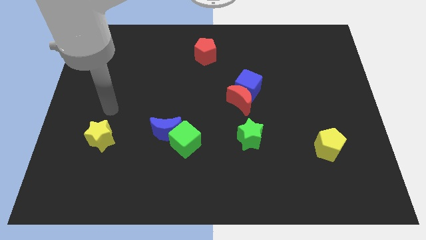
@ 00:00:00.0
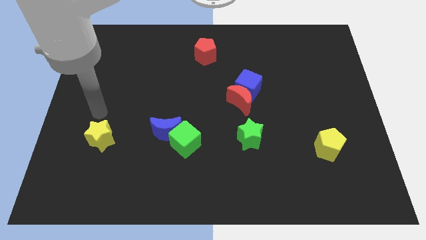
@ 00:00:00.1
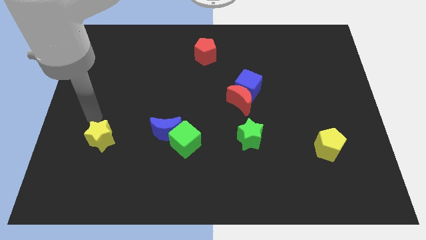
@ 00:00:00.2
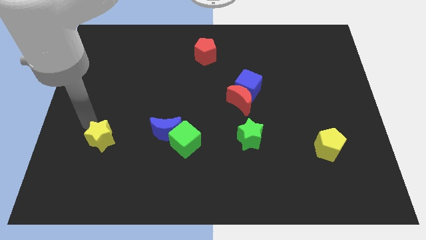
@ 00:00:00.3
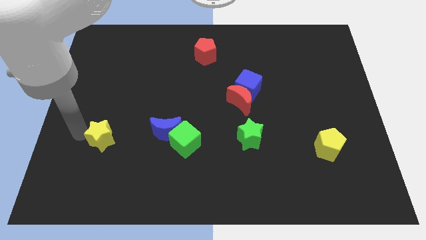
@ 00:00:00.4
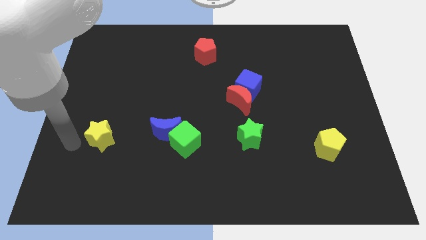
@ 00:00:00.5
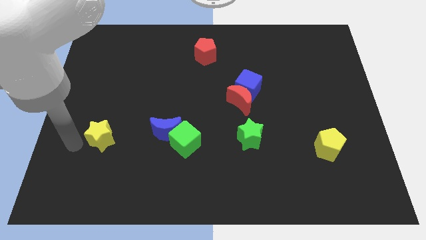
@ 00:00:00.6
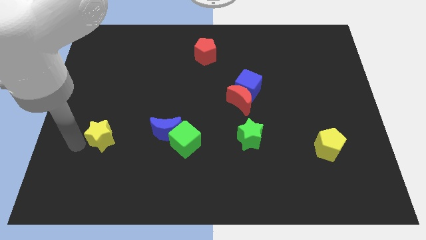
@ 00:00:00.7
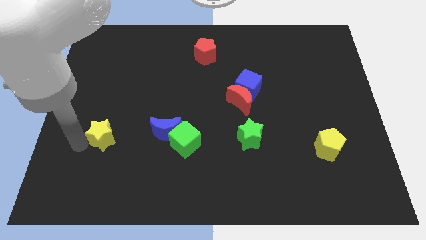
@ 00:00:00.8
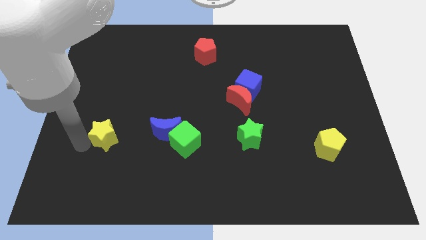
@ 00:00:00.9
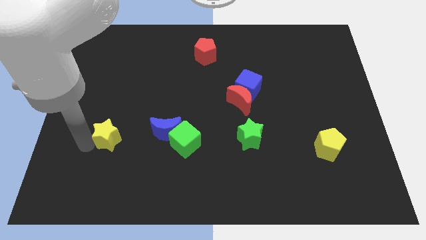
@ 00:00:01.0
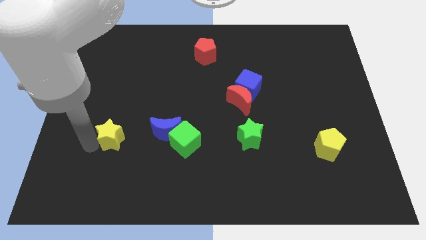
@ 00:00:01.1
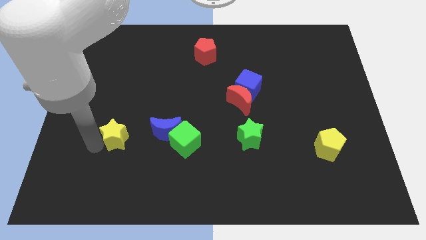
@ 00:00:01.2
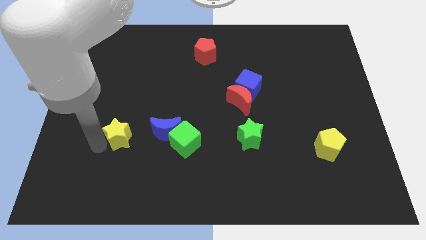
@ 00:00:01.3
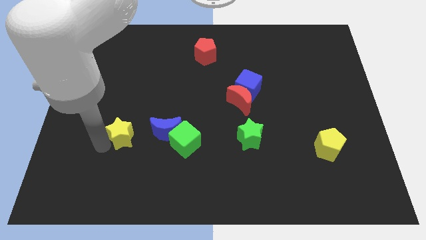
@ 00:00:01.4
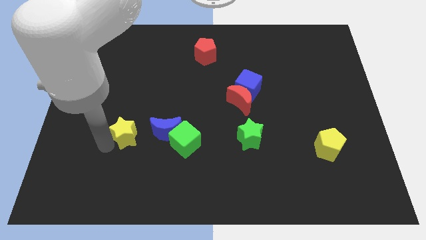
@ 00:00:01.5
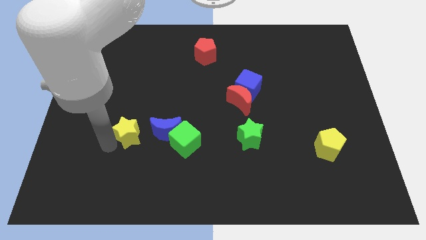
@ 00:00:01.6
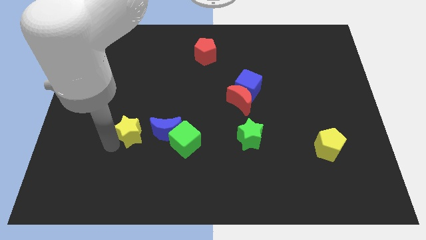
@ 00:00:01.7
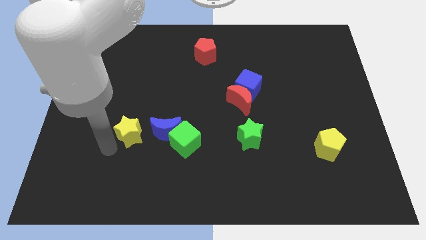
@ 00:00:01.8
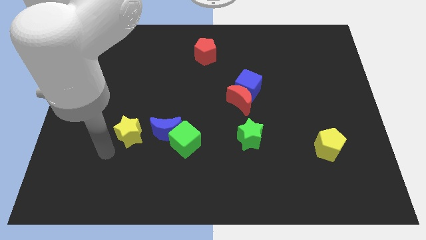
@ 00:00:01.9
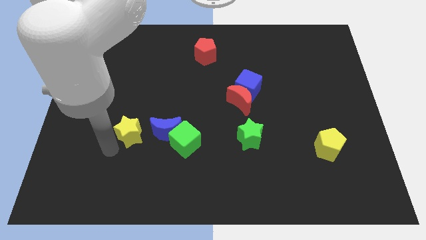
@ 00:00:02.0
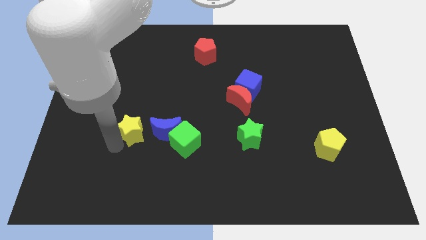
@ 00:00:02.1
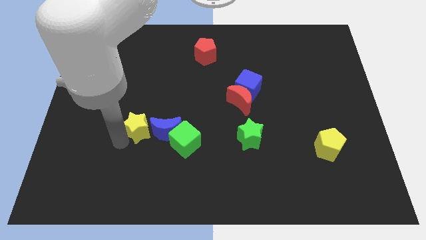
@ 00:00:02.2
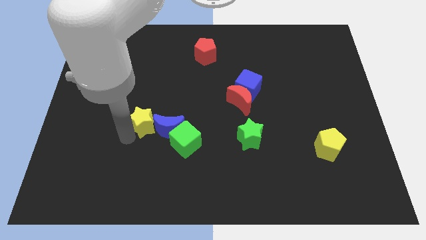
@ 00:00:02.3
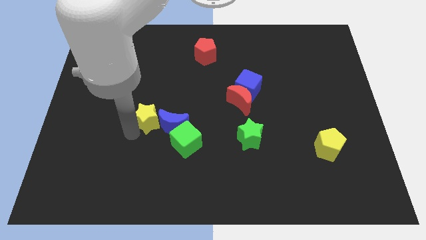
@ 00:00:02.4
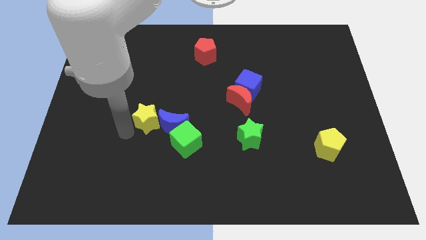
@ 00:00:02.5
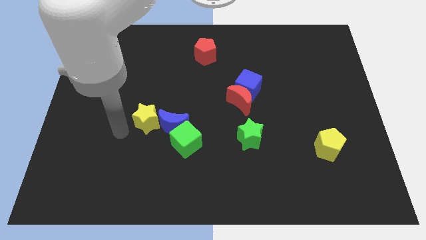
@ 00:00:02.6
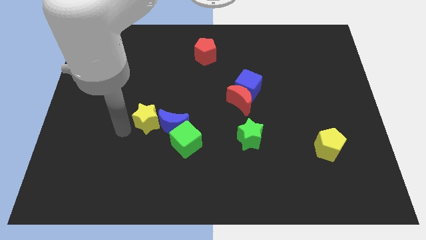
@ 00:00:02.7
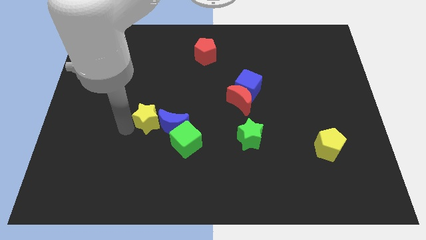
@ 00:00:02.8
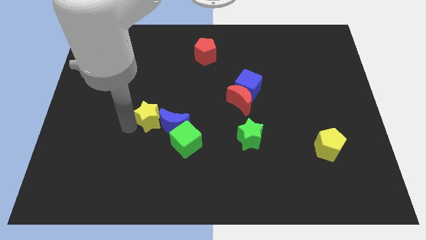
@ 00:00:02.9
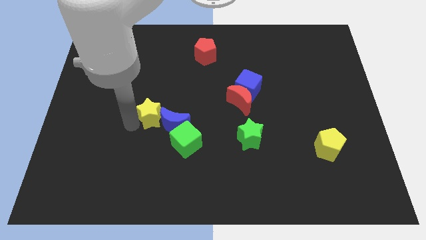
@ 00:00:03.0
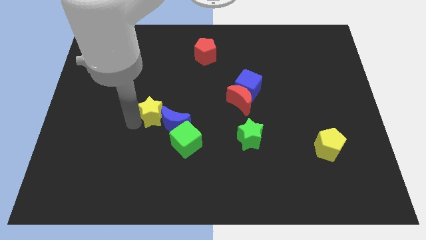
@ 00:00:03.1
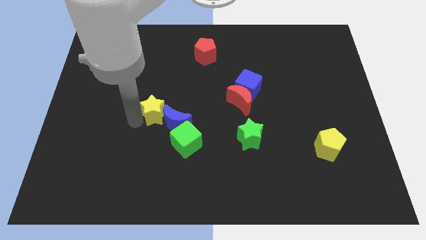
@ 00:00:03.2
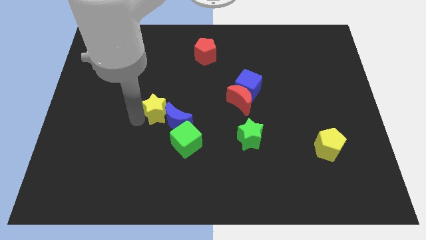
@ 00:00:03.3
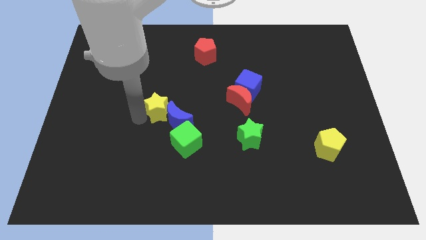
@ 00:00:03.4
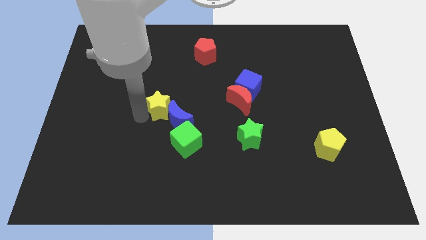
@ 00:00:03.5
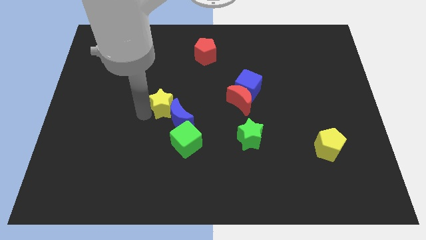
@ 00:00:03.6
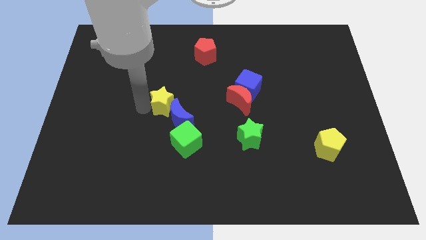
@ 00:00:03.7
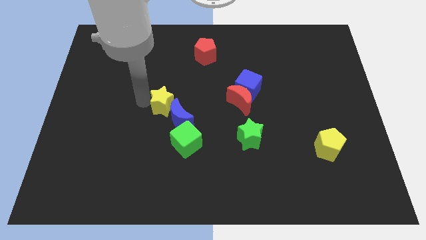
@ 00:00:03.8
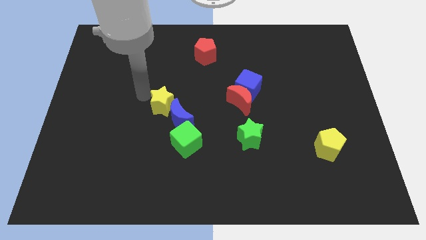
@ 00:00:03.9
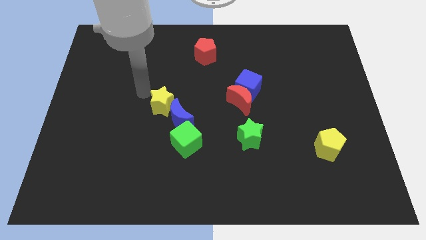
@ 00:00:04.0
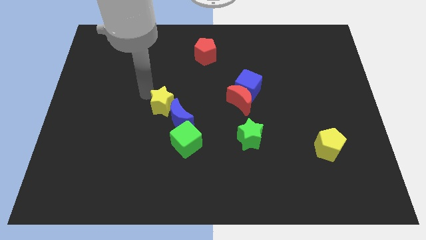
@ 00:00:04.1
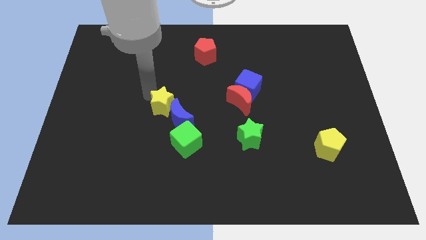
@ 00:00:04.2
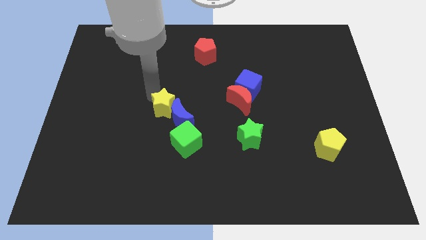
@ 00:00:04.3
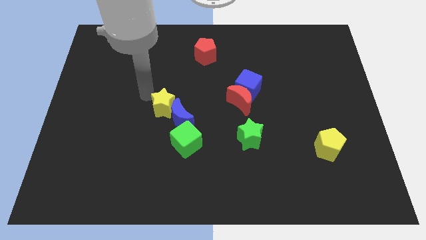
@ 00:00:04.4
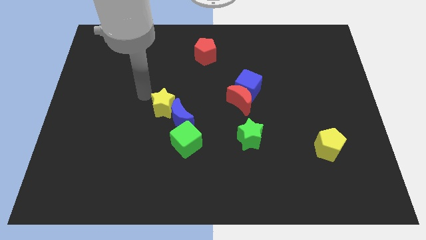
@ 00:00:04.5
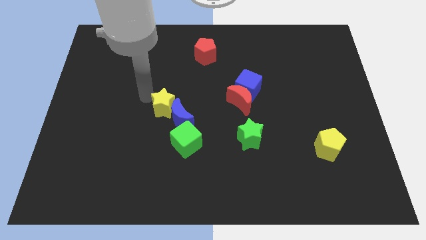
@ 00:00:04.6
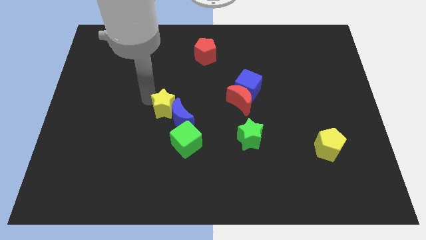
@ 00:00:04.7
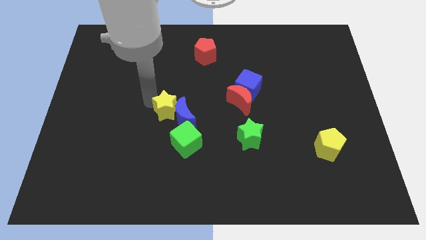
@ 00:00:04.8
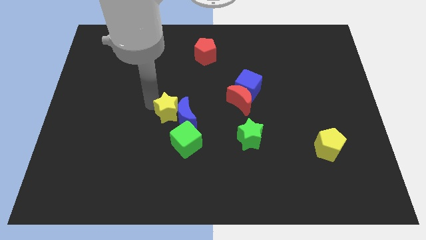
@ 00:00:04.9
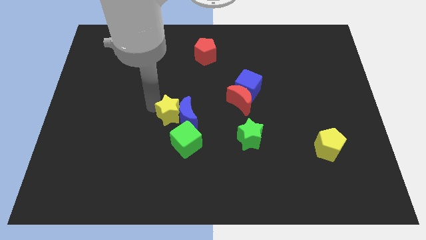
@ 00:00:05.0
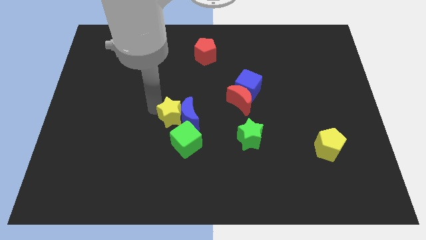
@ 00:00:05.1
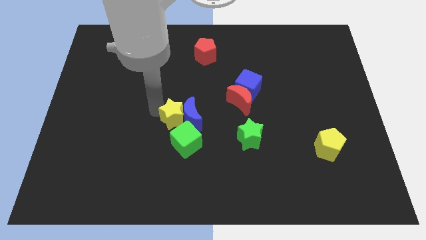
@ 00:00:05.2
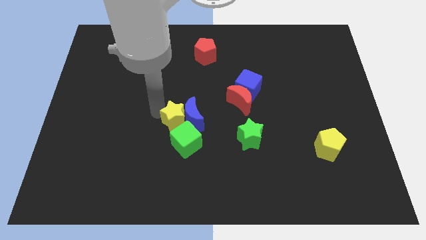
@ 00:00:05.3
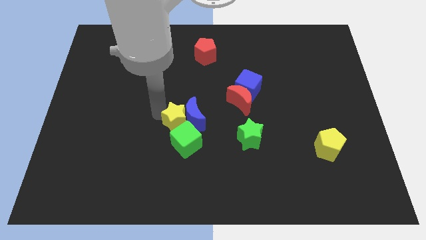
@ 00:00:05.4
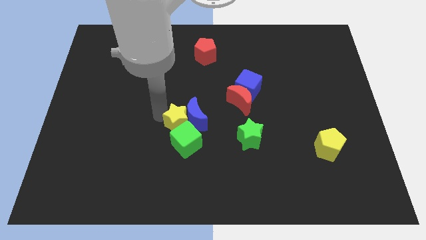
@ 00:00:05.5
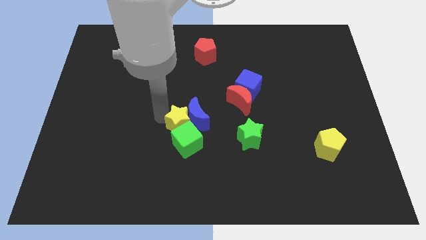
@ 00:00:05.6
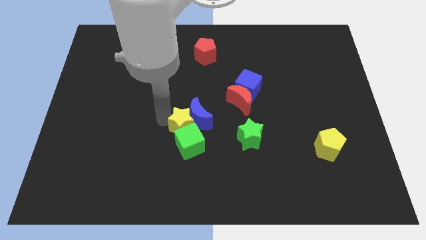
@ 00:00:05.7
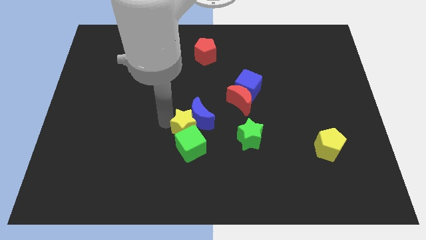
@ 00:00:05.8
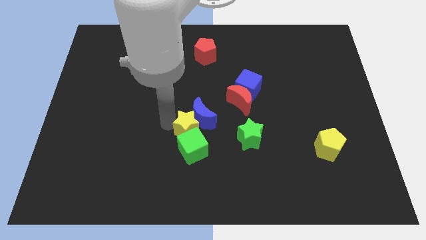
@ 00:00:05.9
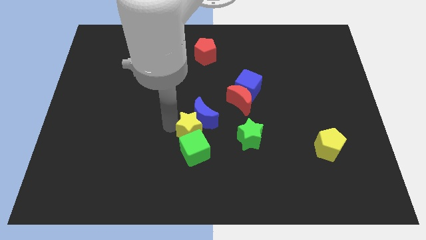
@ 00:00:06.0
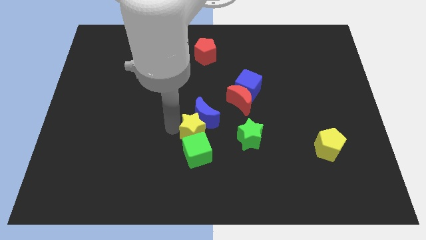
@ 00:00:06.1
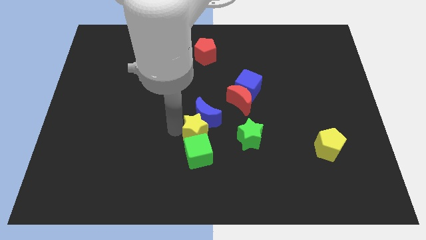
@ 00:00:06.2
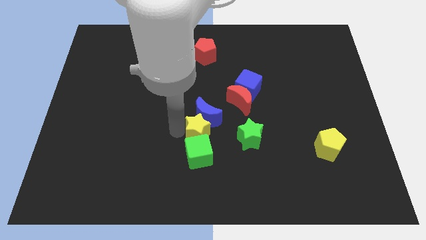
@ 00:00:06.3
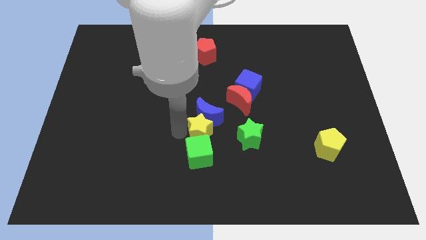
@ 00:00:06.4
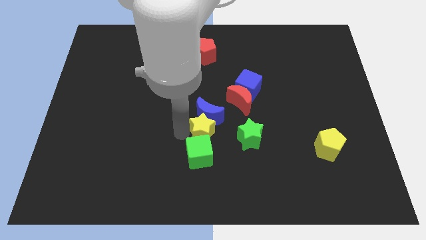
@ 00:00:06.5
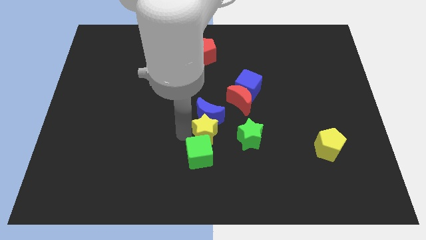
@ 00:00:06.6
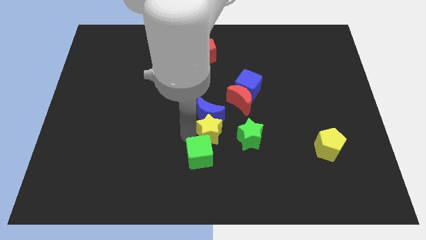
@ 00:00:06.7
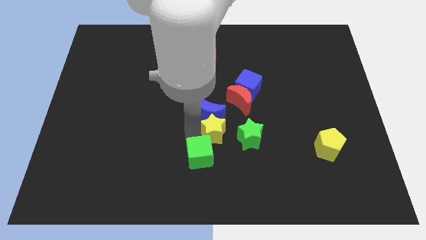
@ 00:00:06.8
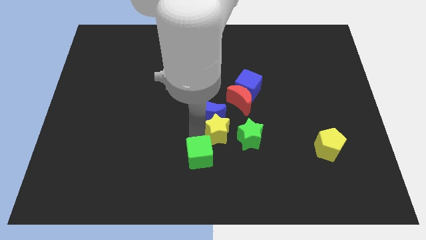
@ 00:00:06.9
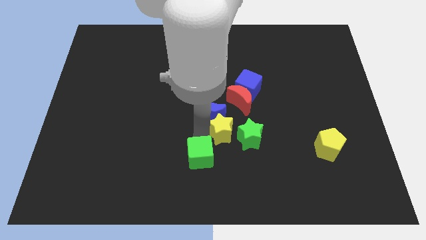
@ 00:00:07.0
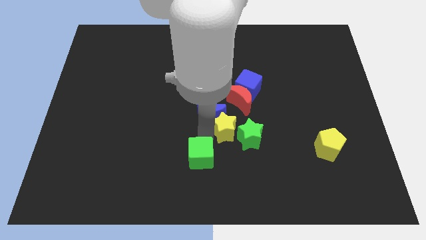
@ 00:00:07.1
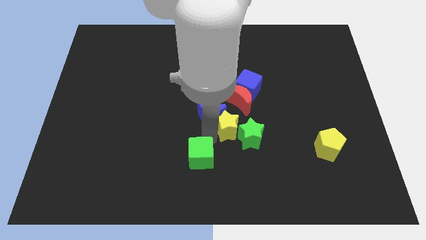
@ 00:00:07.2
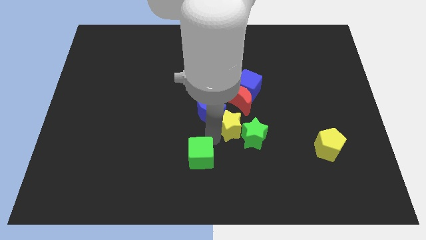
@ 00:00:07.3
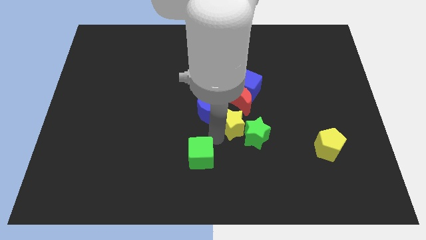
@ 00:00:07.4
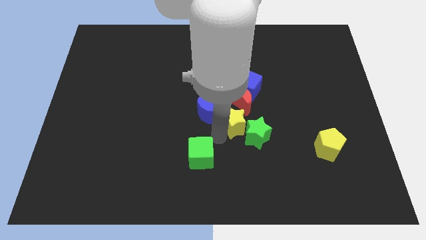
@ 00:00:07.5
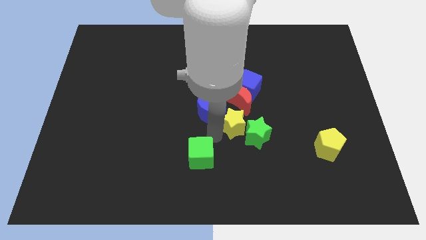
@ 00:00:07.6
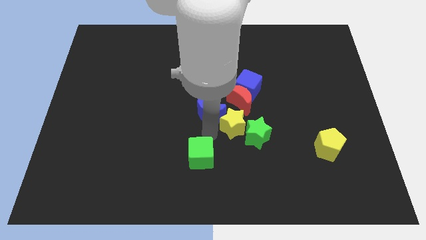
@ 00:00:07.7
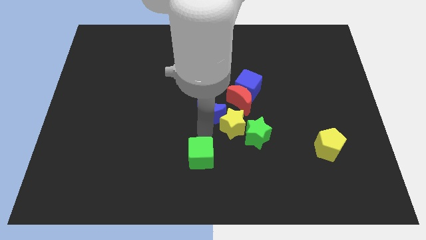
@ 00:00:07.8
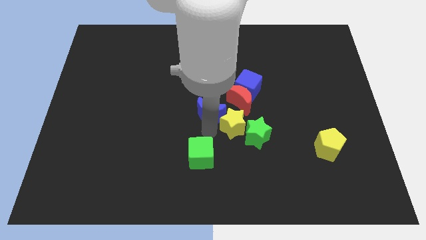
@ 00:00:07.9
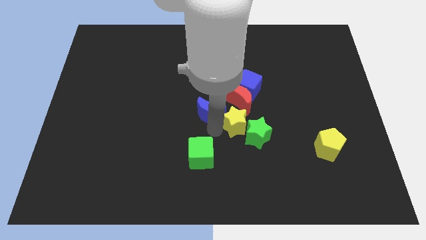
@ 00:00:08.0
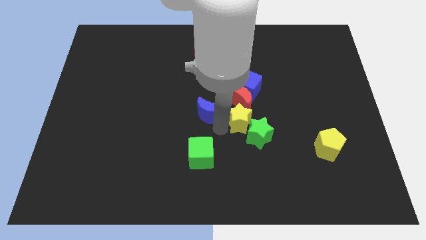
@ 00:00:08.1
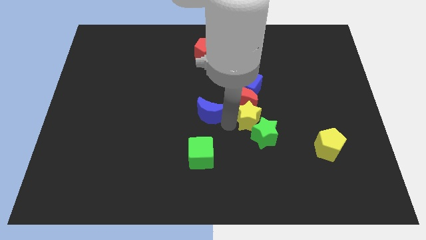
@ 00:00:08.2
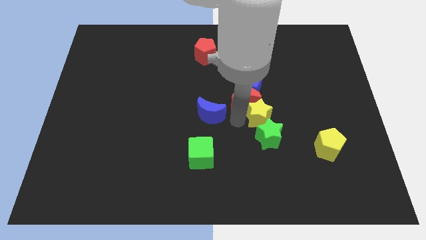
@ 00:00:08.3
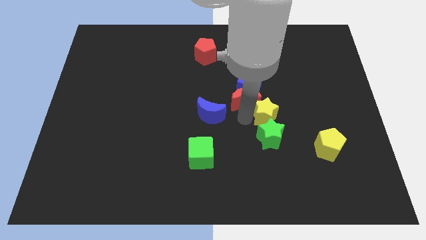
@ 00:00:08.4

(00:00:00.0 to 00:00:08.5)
move the yellow star to the top right side of the green star
